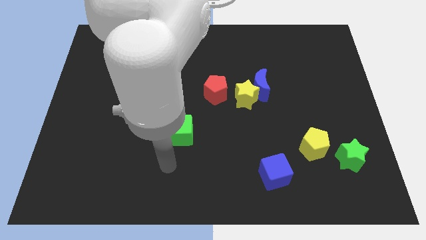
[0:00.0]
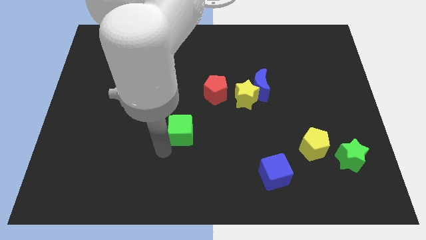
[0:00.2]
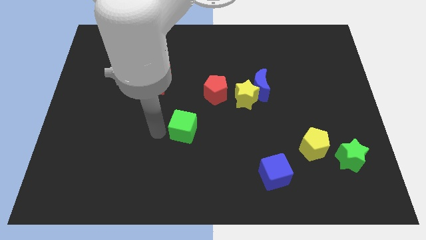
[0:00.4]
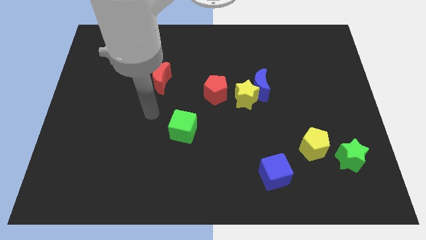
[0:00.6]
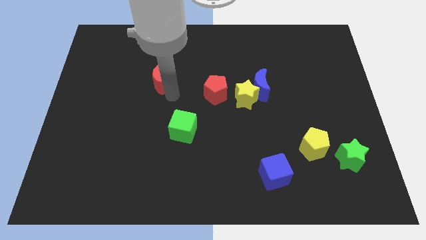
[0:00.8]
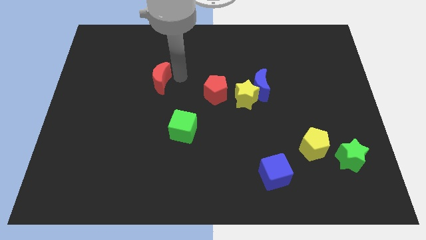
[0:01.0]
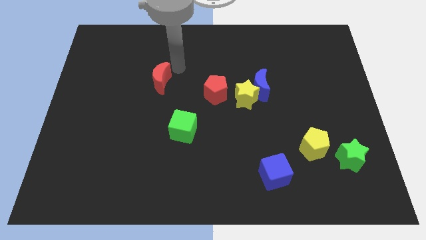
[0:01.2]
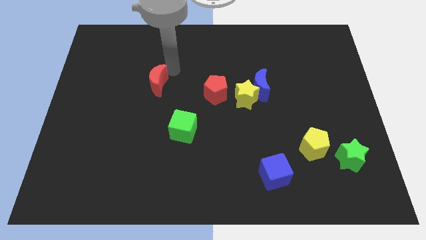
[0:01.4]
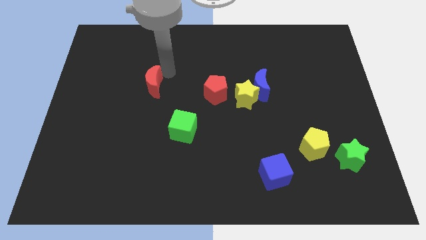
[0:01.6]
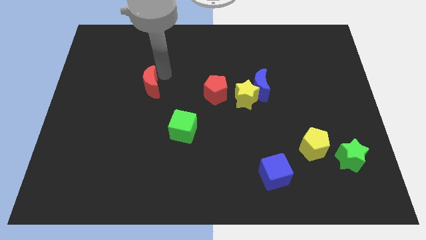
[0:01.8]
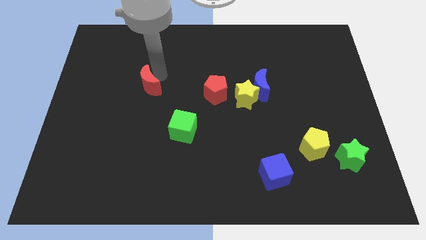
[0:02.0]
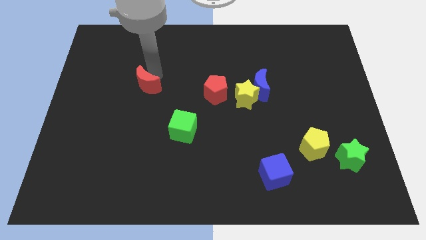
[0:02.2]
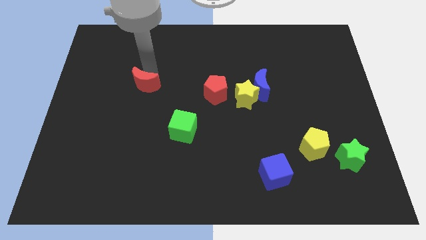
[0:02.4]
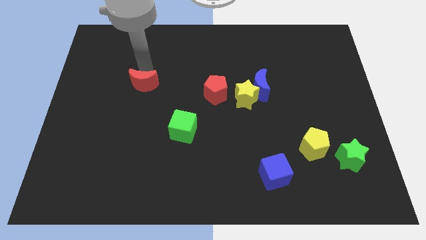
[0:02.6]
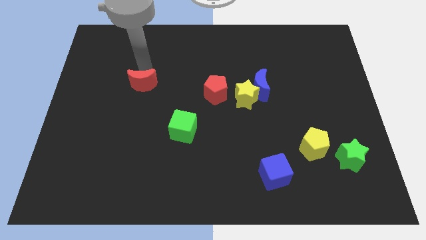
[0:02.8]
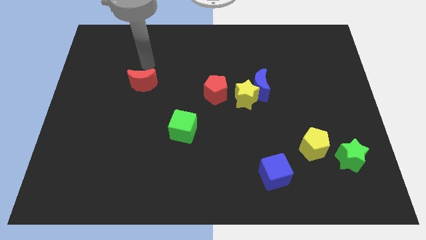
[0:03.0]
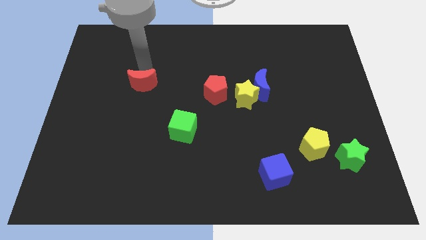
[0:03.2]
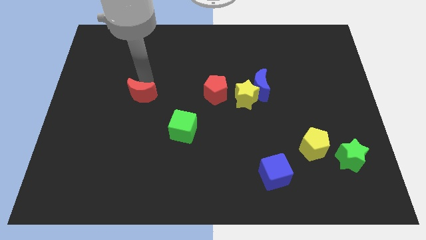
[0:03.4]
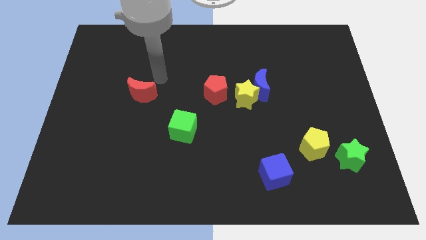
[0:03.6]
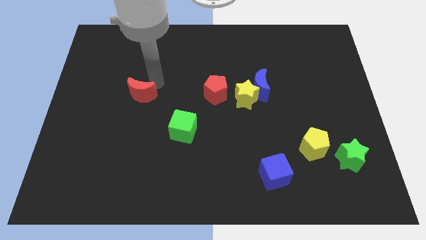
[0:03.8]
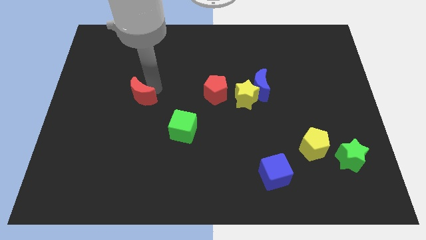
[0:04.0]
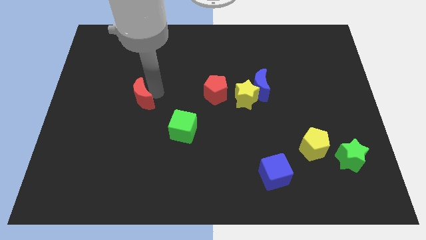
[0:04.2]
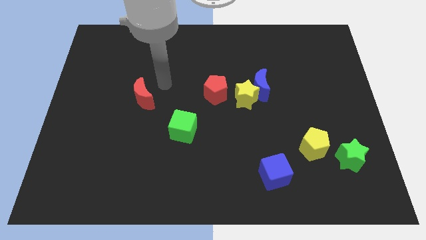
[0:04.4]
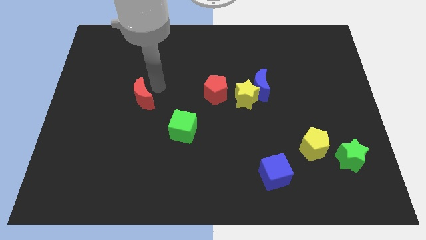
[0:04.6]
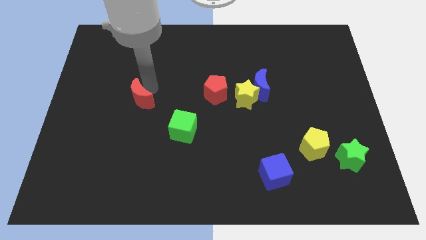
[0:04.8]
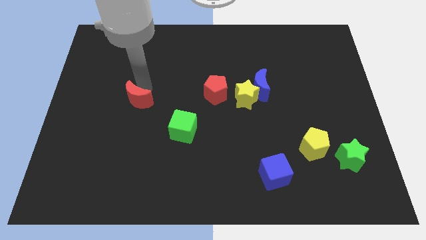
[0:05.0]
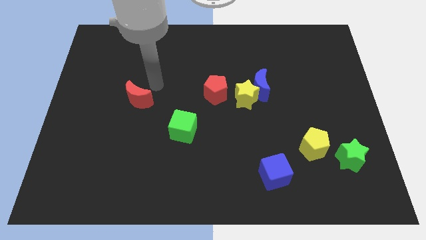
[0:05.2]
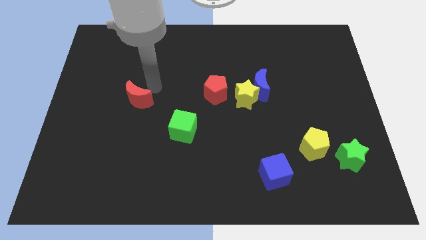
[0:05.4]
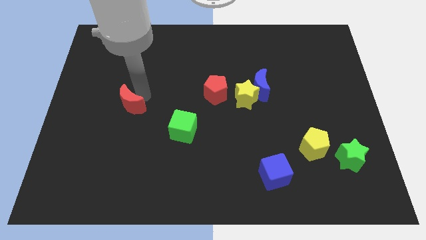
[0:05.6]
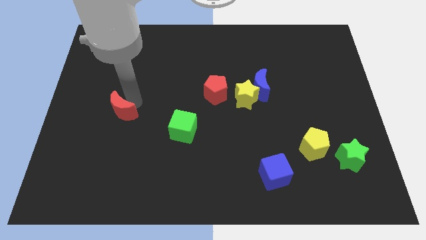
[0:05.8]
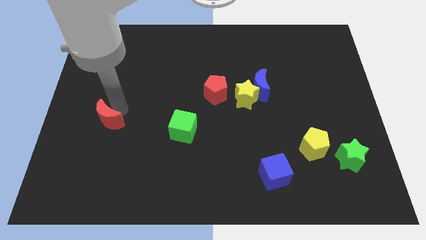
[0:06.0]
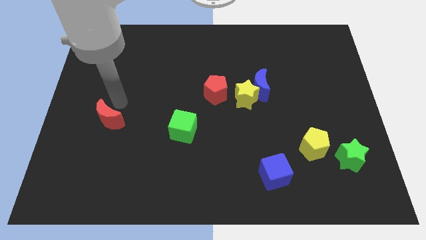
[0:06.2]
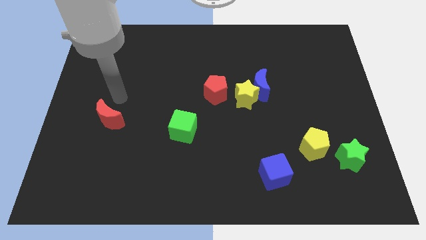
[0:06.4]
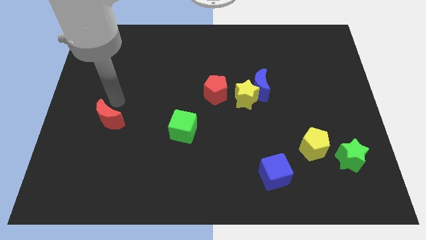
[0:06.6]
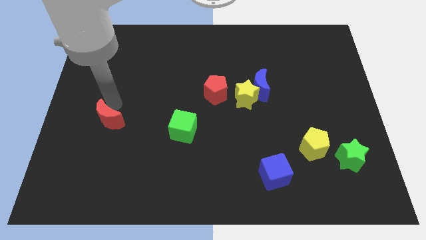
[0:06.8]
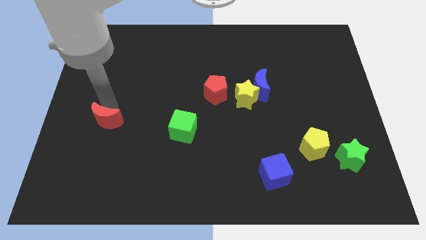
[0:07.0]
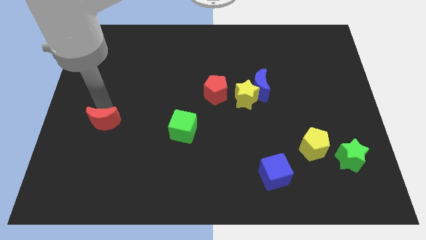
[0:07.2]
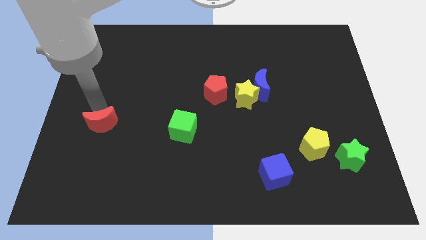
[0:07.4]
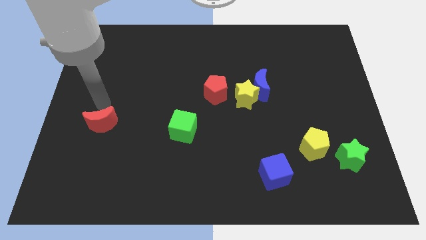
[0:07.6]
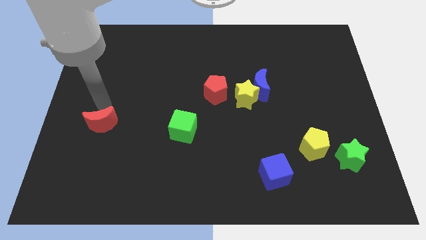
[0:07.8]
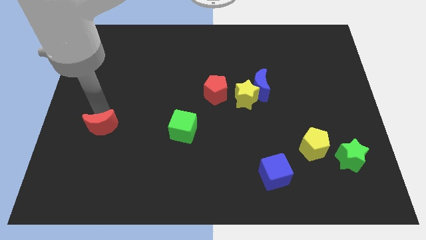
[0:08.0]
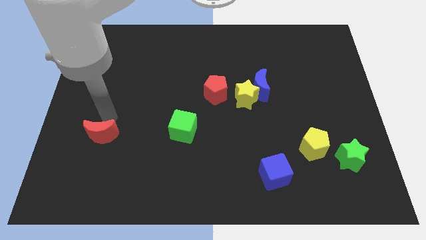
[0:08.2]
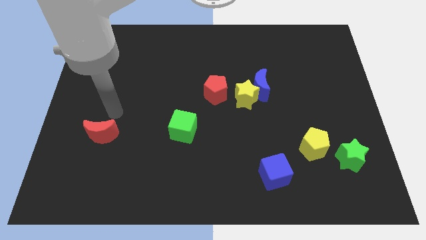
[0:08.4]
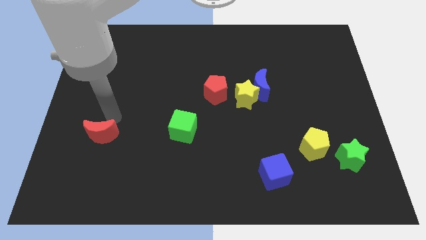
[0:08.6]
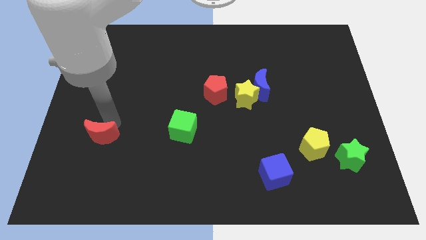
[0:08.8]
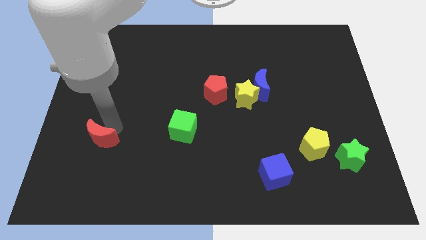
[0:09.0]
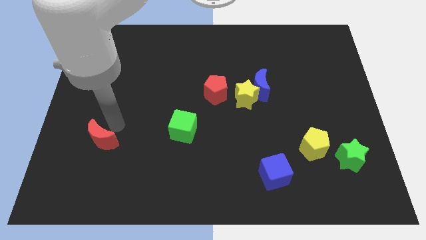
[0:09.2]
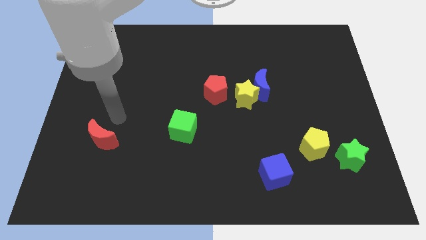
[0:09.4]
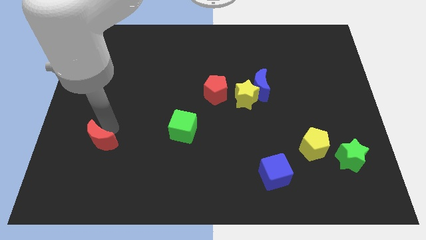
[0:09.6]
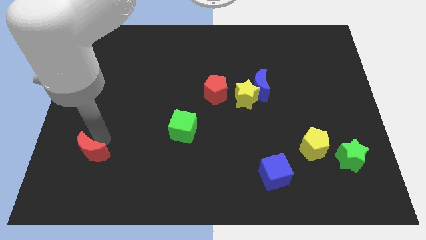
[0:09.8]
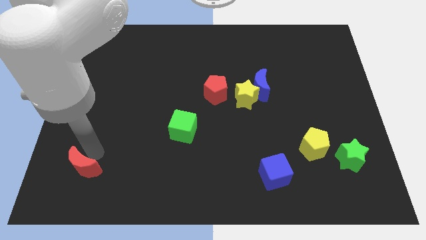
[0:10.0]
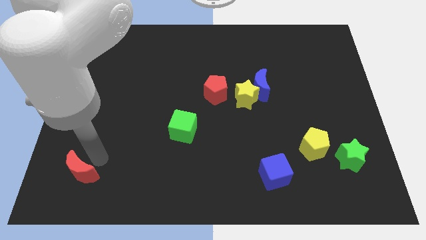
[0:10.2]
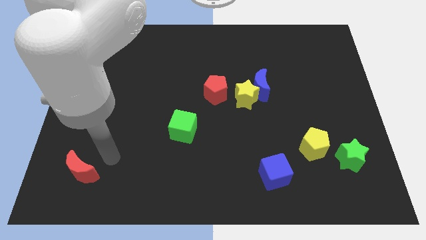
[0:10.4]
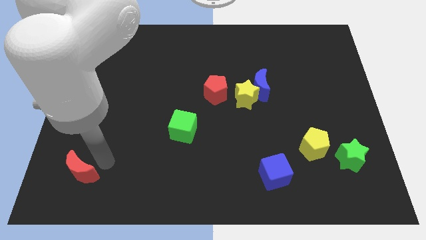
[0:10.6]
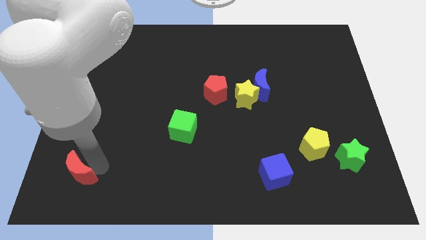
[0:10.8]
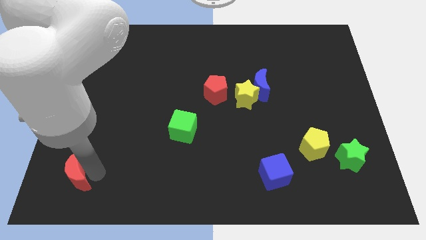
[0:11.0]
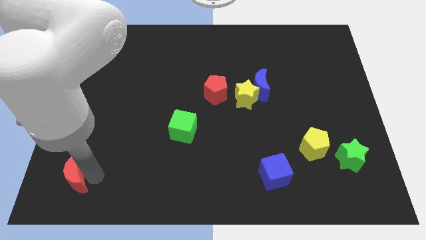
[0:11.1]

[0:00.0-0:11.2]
put the red moon to the bottom left

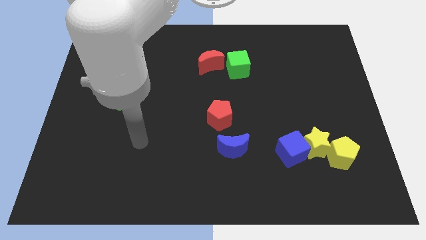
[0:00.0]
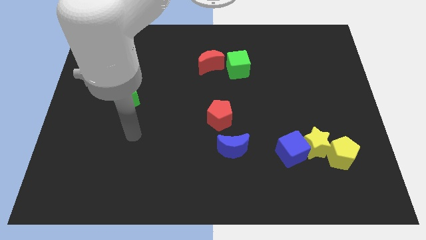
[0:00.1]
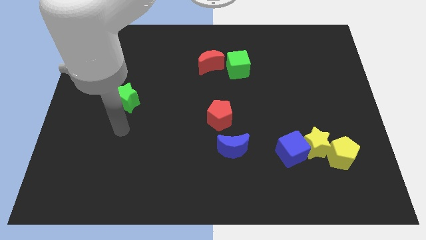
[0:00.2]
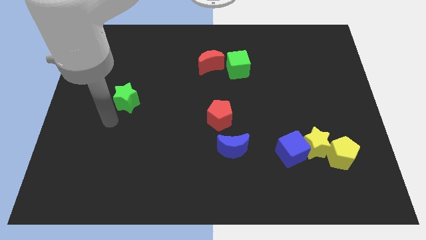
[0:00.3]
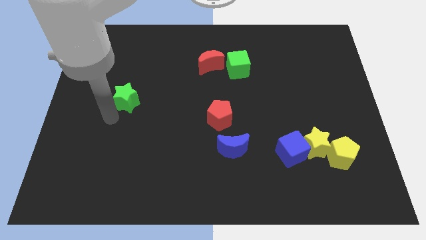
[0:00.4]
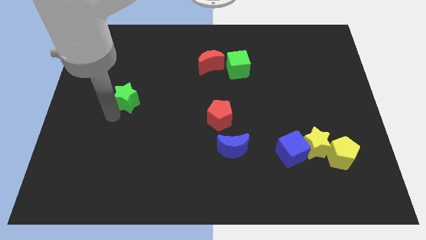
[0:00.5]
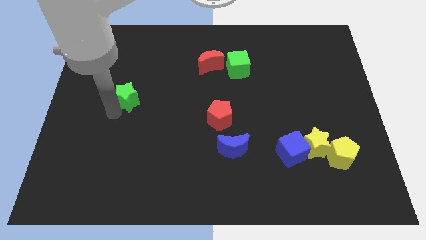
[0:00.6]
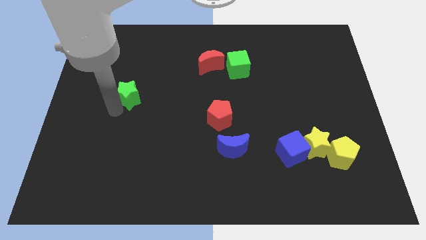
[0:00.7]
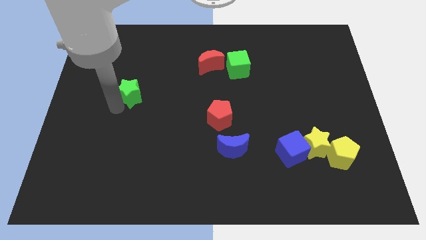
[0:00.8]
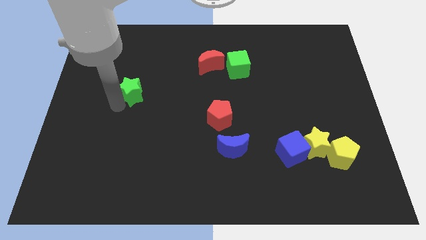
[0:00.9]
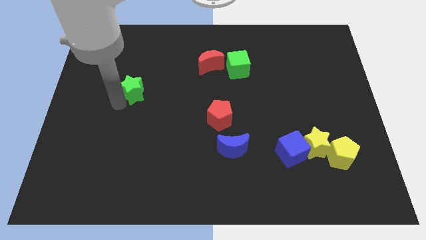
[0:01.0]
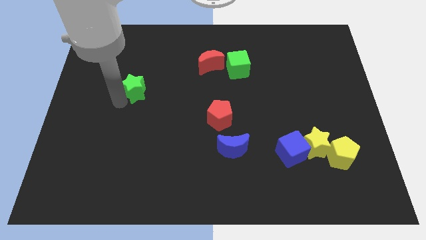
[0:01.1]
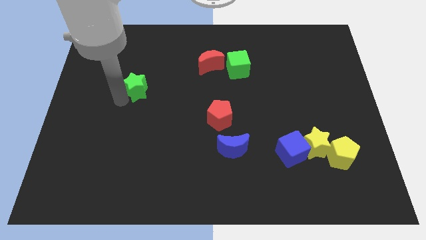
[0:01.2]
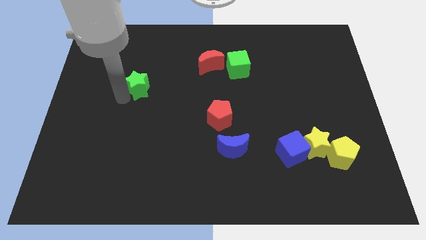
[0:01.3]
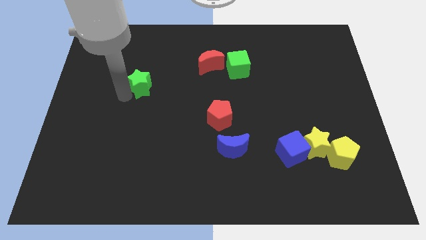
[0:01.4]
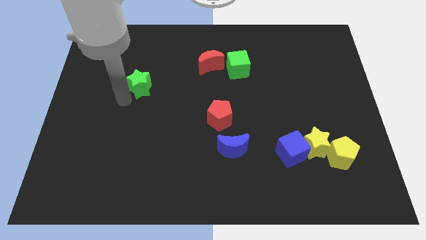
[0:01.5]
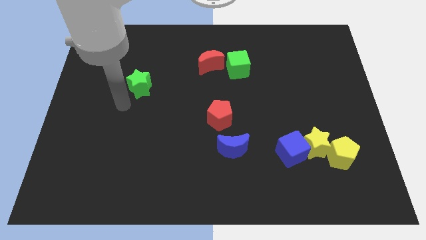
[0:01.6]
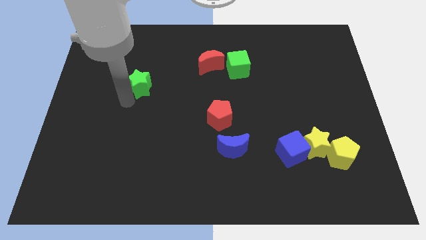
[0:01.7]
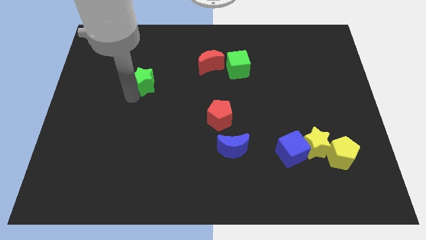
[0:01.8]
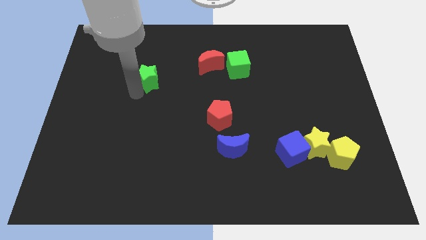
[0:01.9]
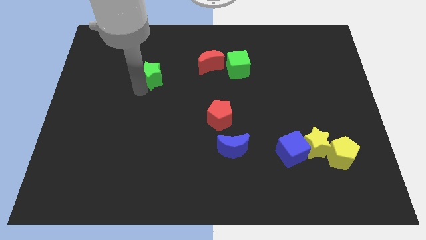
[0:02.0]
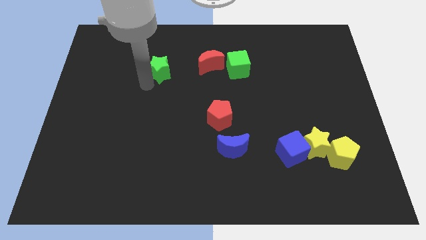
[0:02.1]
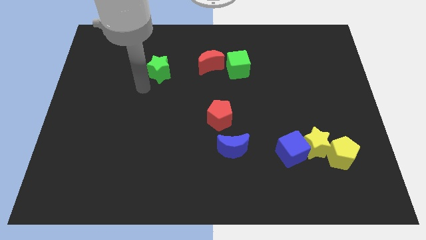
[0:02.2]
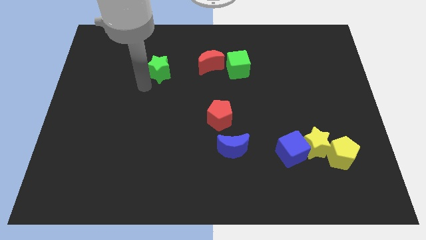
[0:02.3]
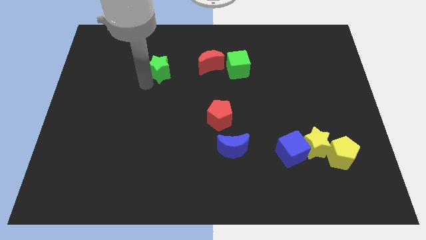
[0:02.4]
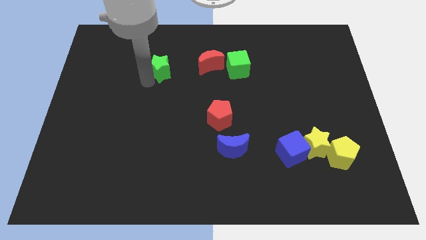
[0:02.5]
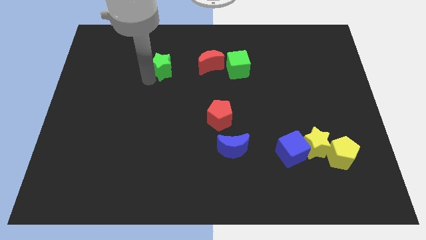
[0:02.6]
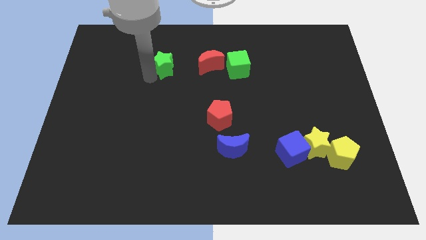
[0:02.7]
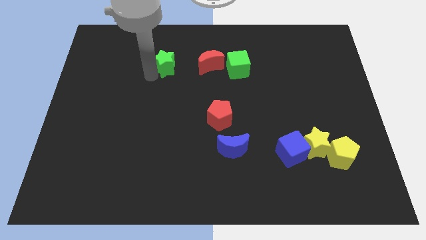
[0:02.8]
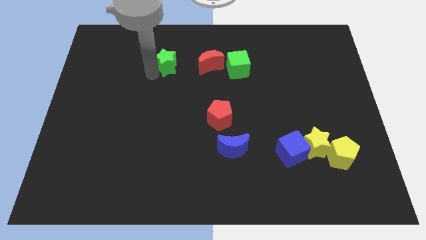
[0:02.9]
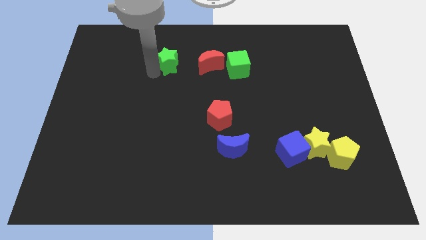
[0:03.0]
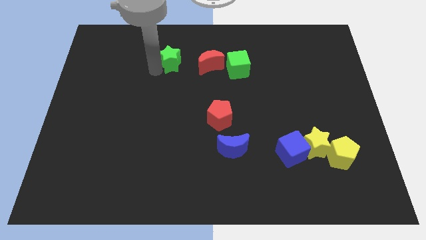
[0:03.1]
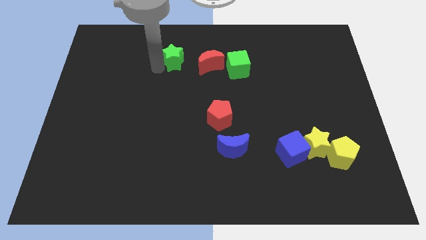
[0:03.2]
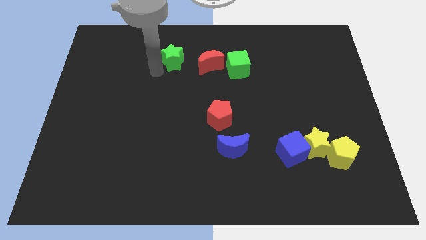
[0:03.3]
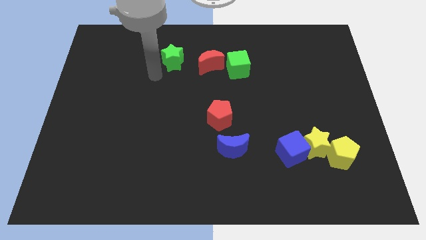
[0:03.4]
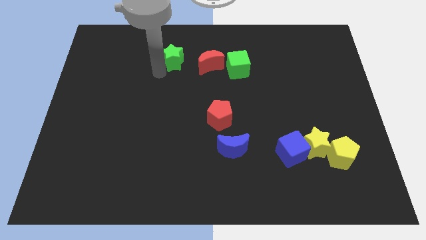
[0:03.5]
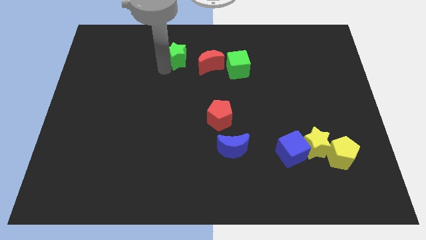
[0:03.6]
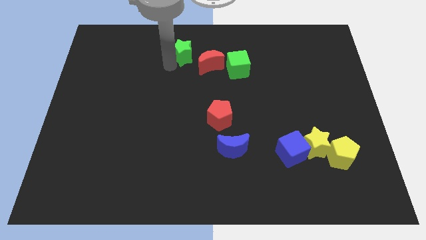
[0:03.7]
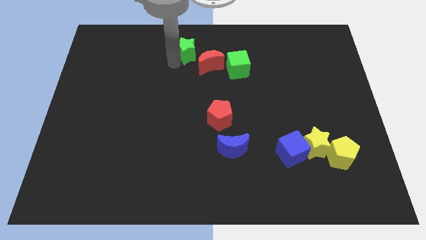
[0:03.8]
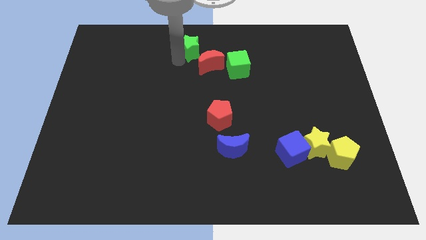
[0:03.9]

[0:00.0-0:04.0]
move the green star to the towards your base
